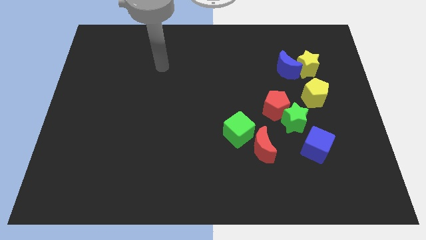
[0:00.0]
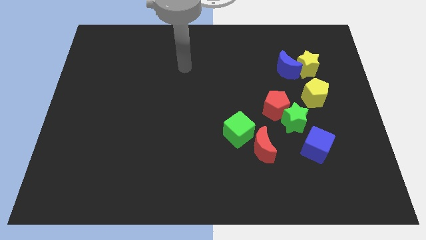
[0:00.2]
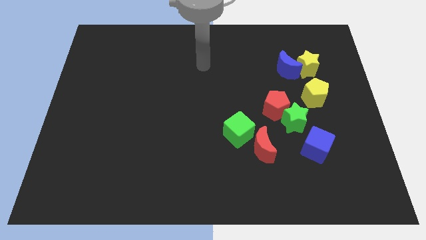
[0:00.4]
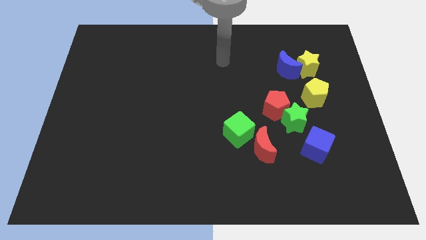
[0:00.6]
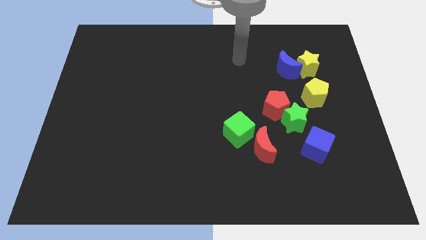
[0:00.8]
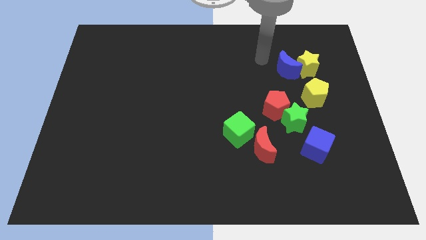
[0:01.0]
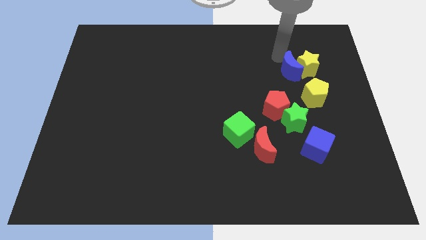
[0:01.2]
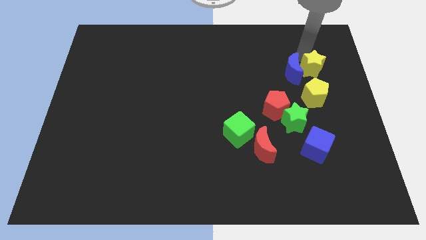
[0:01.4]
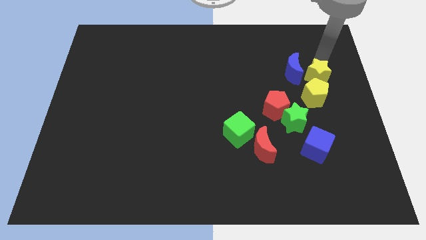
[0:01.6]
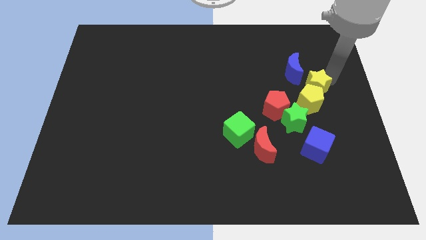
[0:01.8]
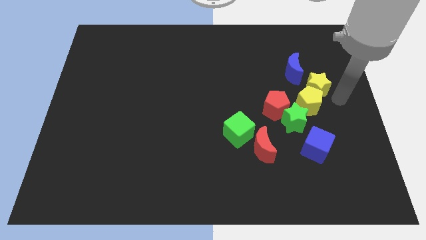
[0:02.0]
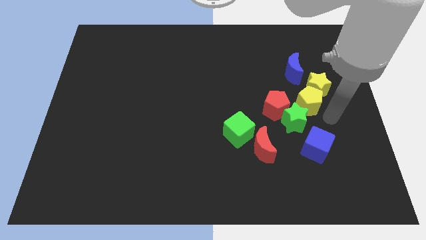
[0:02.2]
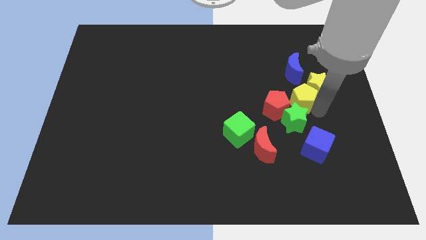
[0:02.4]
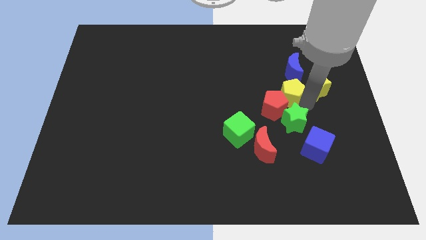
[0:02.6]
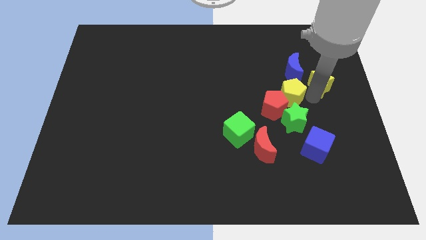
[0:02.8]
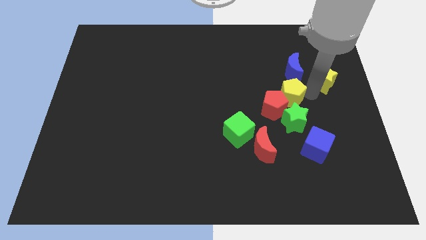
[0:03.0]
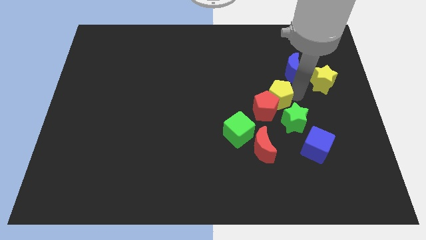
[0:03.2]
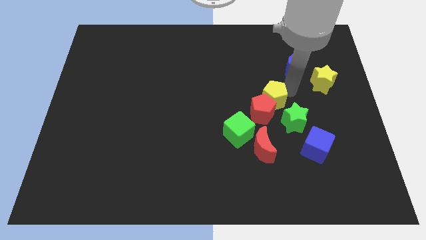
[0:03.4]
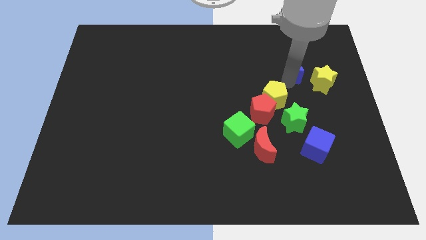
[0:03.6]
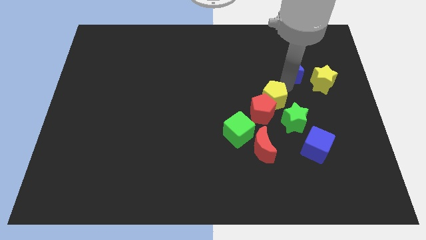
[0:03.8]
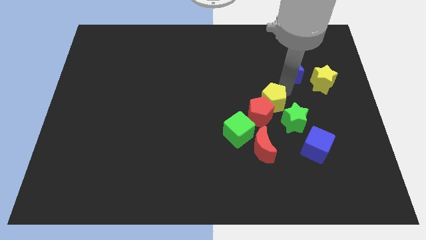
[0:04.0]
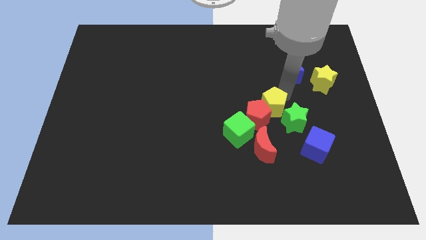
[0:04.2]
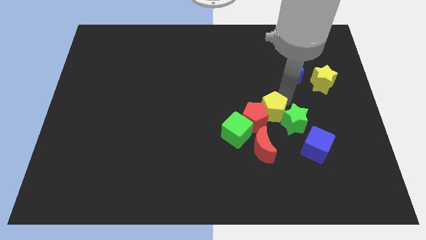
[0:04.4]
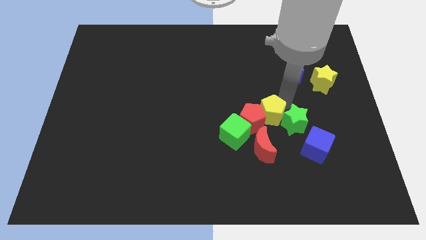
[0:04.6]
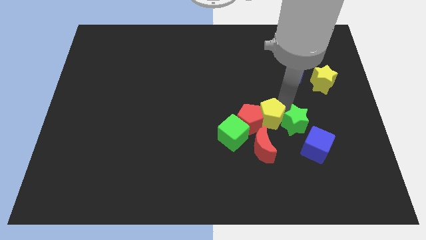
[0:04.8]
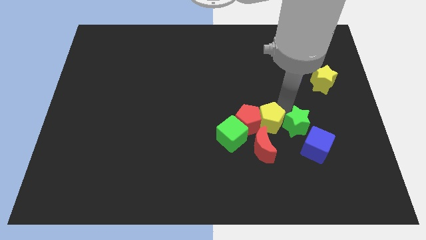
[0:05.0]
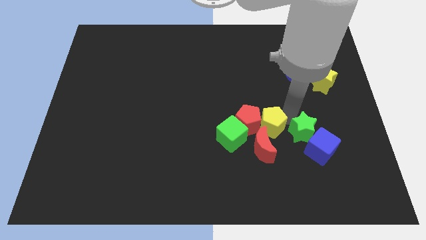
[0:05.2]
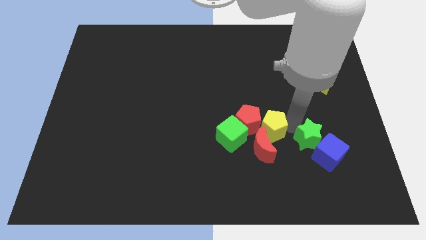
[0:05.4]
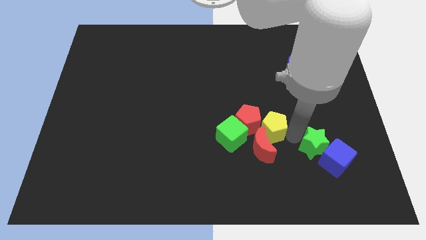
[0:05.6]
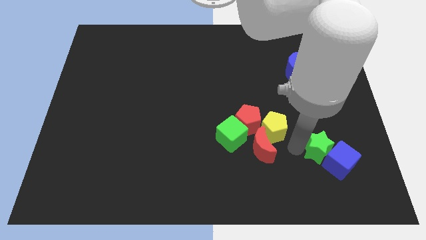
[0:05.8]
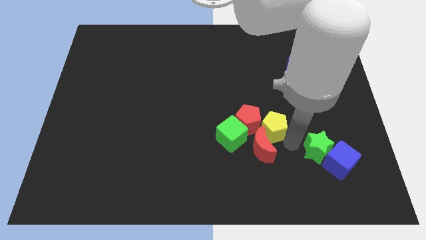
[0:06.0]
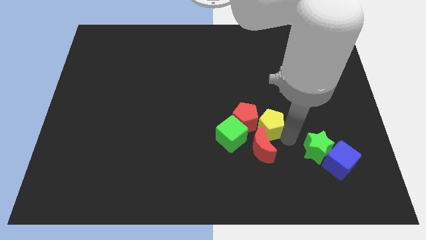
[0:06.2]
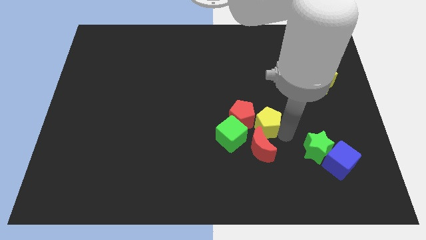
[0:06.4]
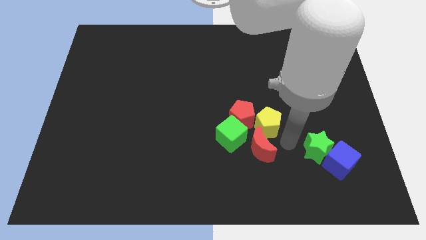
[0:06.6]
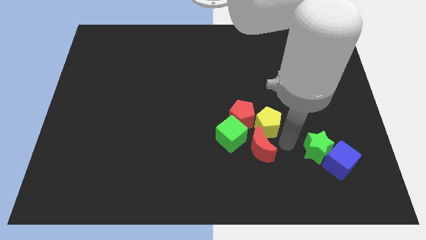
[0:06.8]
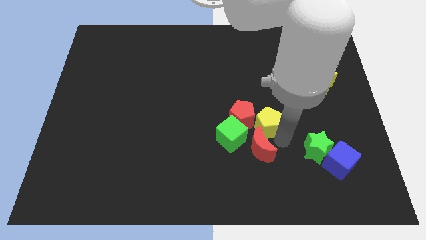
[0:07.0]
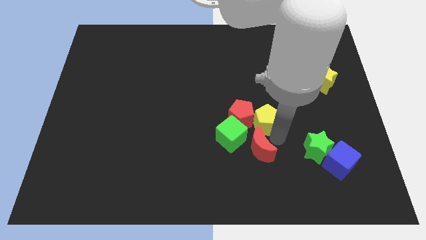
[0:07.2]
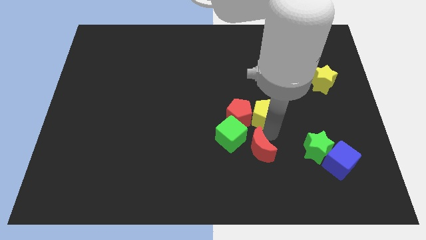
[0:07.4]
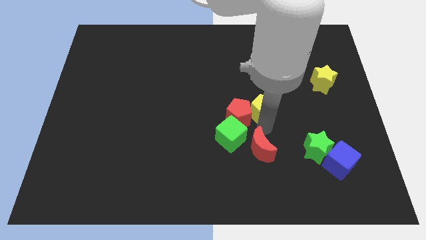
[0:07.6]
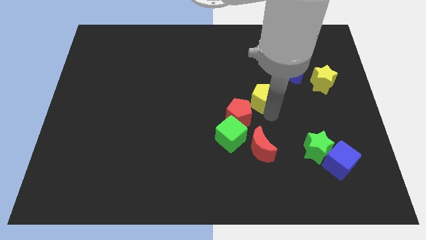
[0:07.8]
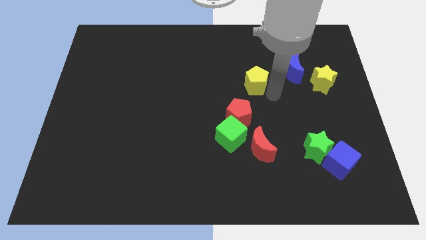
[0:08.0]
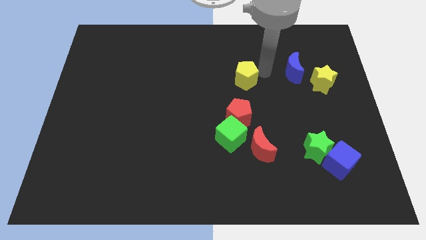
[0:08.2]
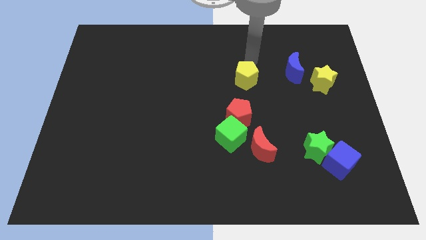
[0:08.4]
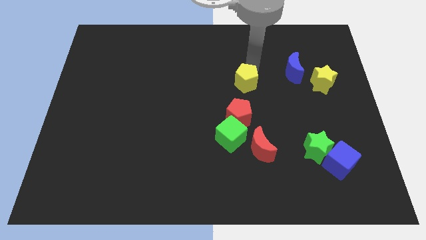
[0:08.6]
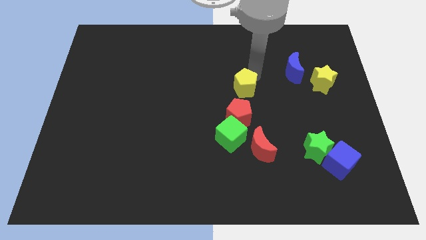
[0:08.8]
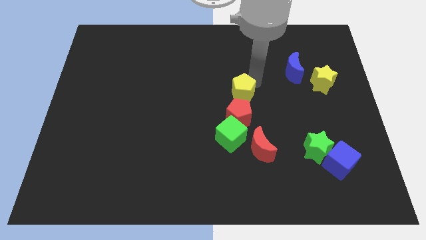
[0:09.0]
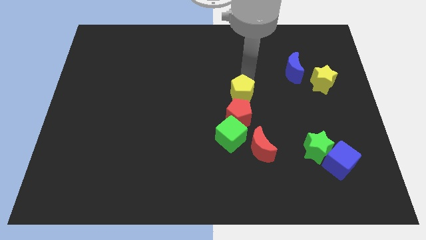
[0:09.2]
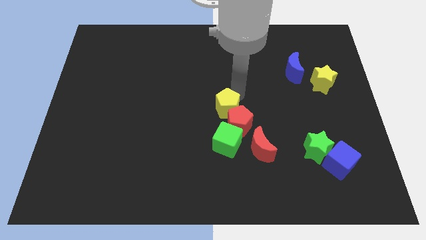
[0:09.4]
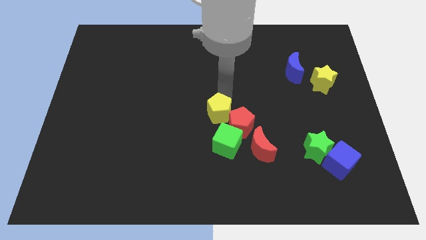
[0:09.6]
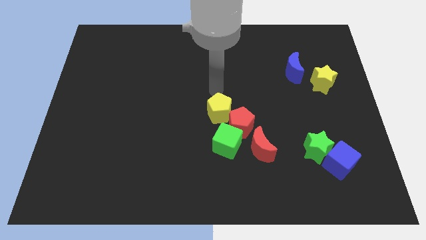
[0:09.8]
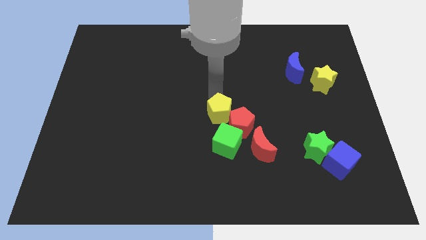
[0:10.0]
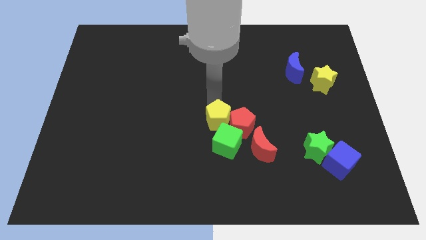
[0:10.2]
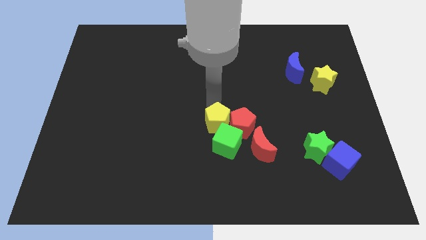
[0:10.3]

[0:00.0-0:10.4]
put the yellow pentagon next to the green cube

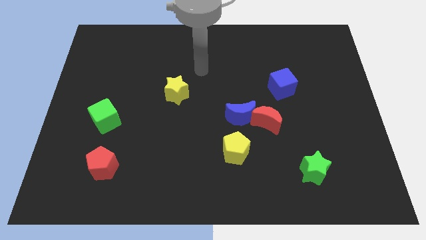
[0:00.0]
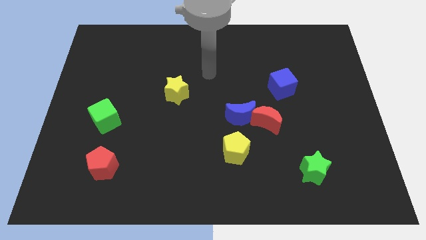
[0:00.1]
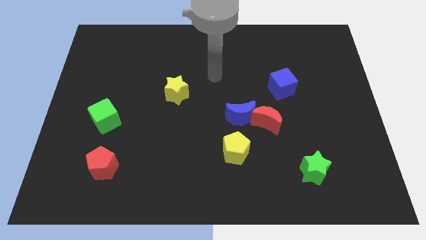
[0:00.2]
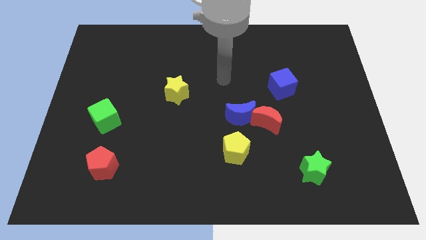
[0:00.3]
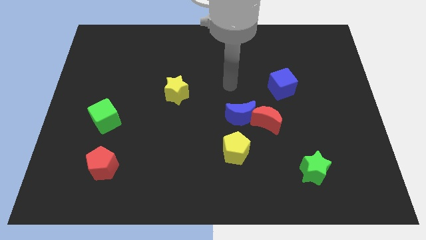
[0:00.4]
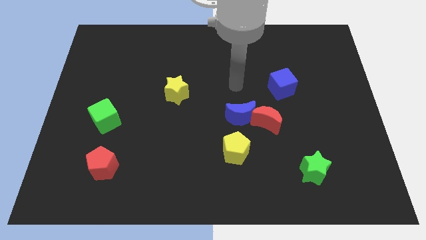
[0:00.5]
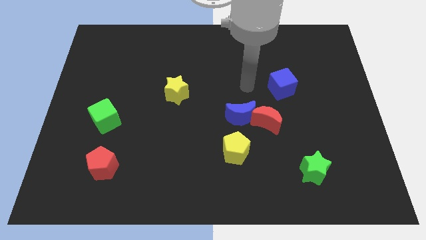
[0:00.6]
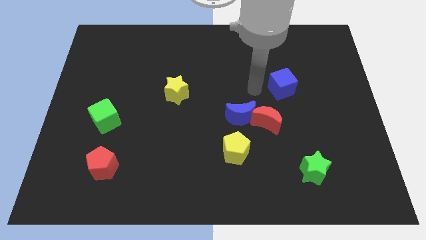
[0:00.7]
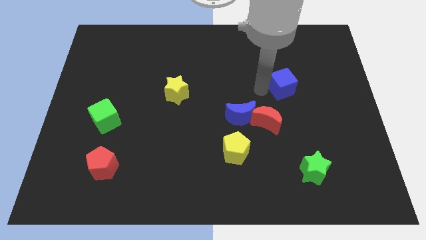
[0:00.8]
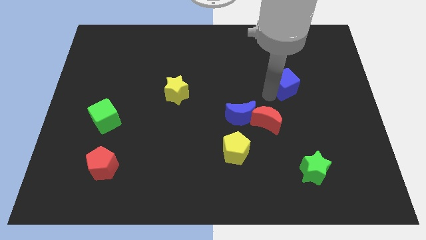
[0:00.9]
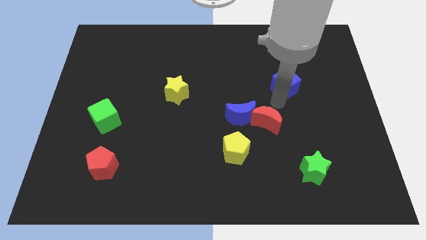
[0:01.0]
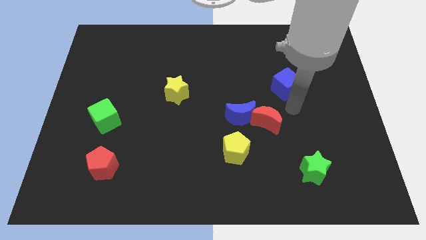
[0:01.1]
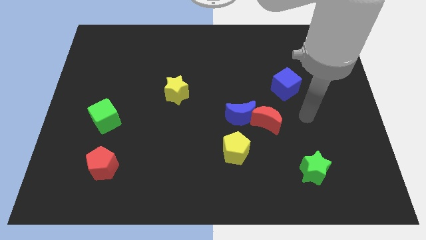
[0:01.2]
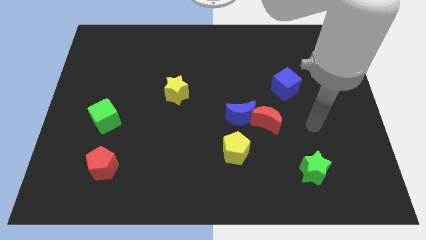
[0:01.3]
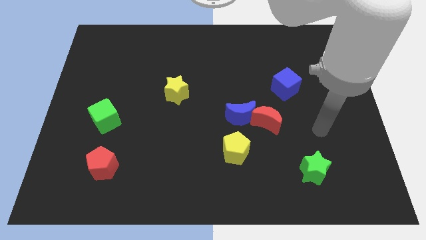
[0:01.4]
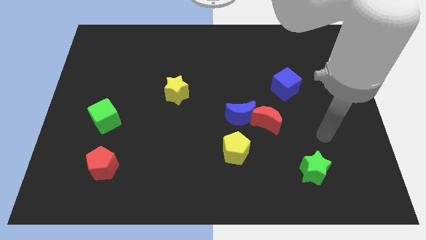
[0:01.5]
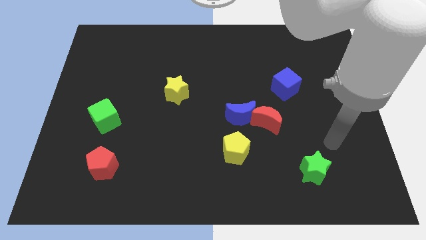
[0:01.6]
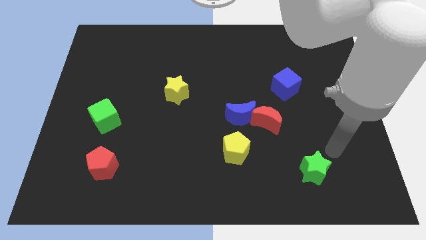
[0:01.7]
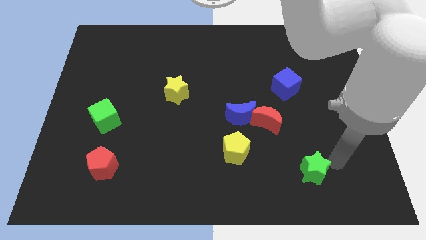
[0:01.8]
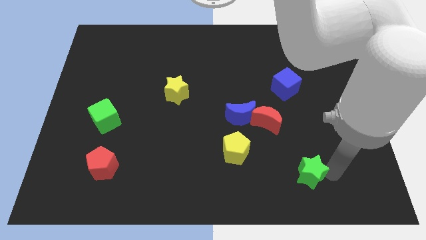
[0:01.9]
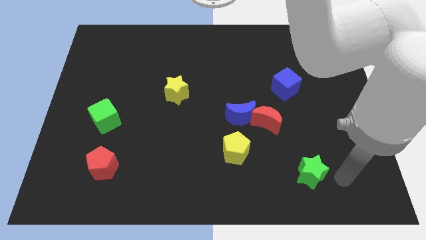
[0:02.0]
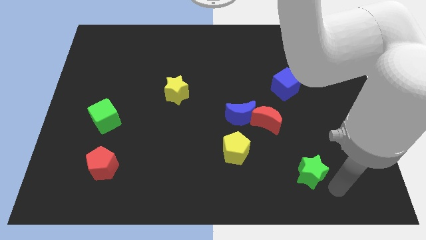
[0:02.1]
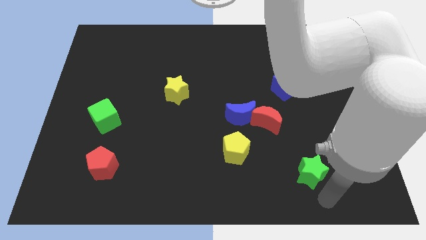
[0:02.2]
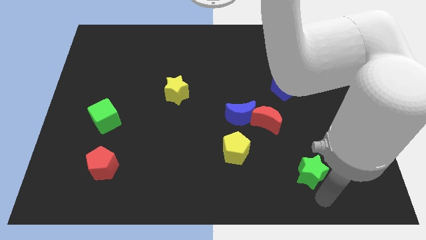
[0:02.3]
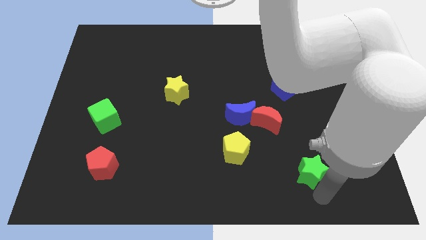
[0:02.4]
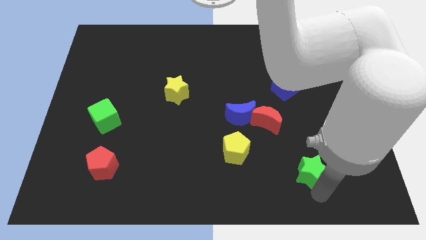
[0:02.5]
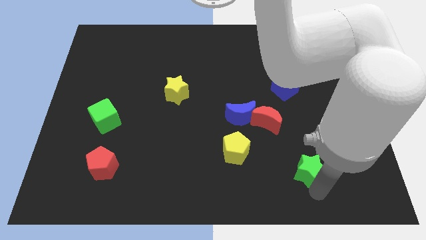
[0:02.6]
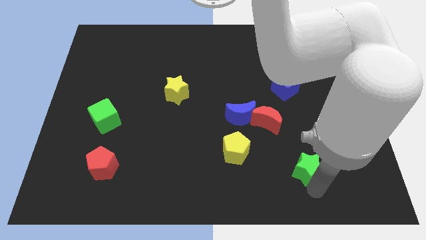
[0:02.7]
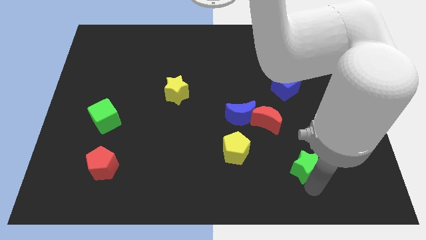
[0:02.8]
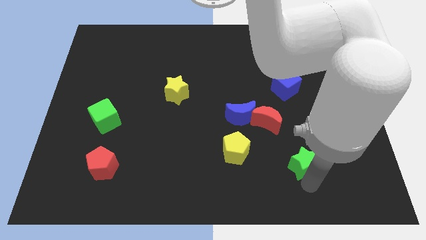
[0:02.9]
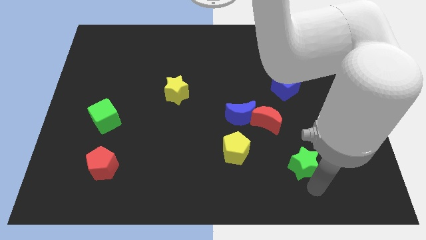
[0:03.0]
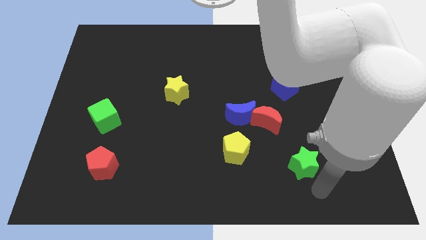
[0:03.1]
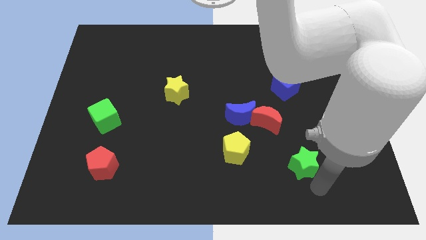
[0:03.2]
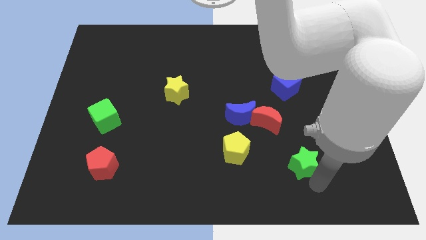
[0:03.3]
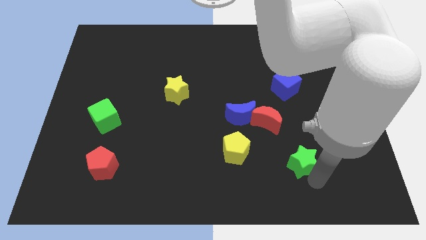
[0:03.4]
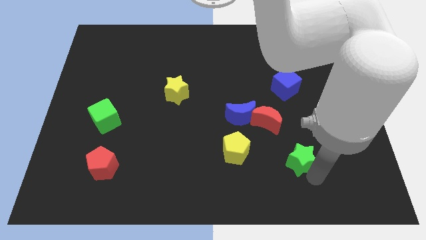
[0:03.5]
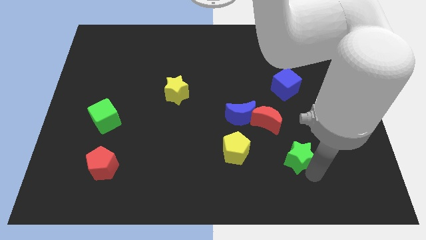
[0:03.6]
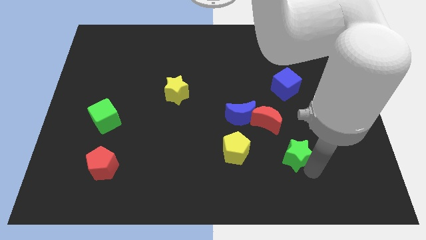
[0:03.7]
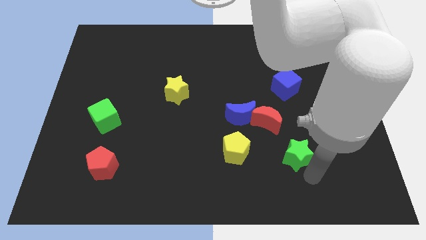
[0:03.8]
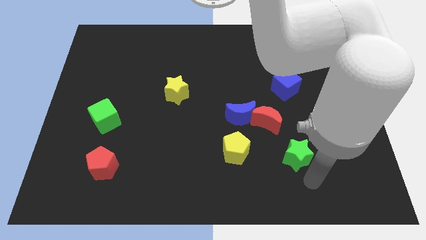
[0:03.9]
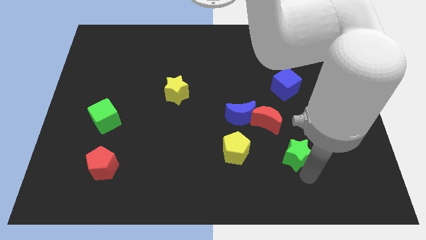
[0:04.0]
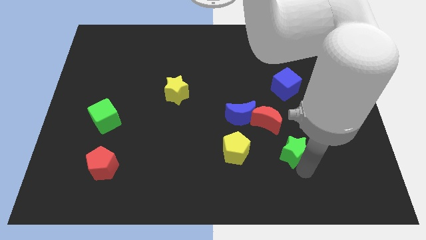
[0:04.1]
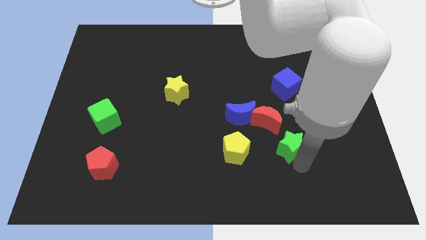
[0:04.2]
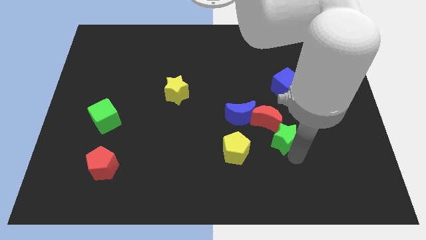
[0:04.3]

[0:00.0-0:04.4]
put the green star next to the red moon
